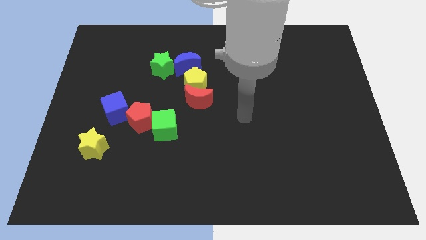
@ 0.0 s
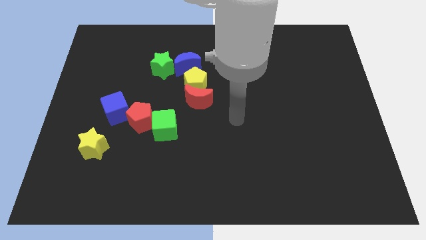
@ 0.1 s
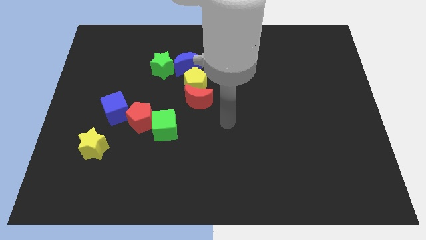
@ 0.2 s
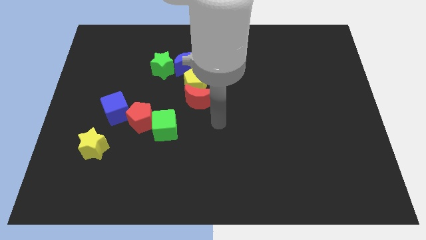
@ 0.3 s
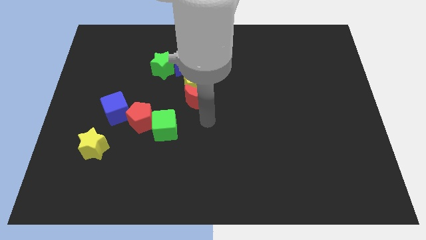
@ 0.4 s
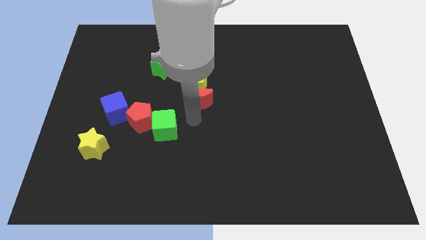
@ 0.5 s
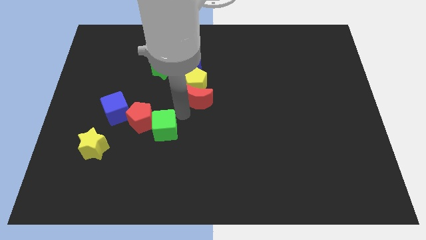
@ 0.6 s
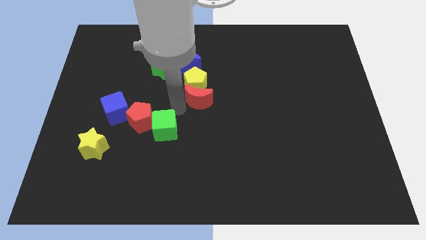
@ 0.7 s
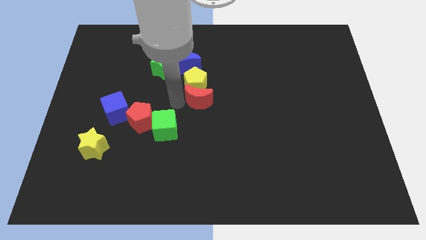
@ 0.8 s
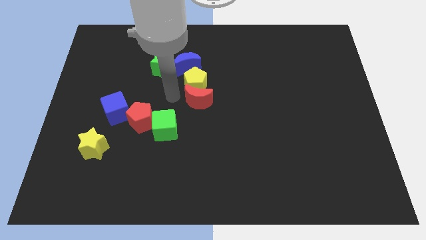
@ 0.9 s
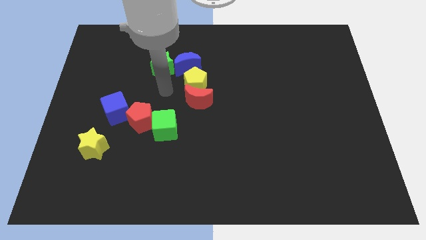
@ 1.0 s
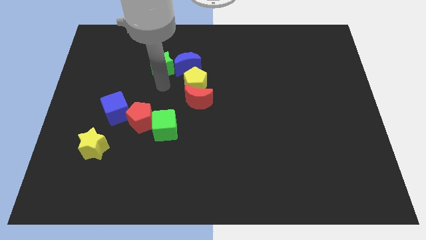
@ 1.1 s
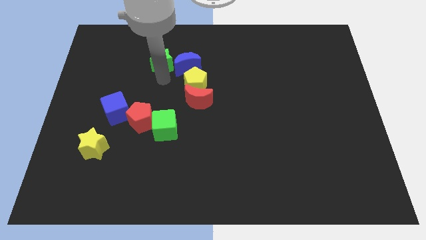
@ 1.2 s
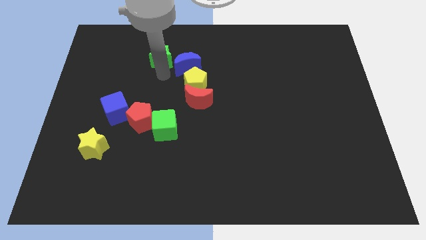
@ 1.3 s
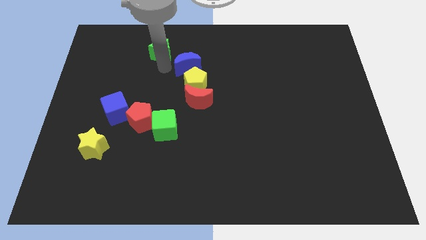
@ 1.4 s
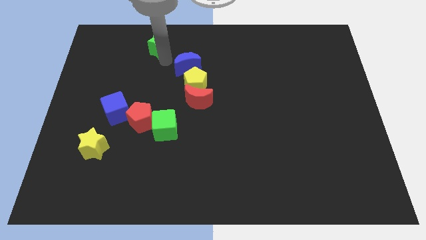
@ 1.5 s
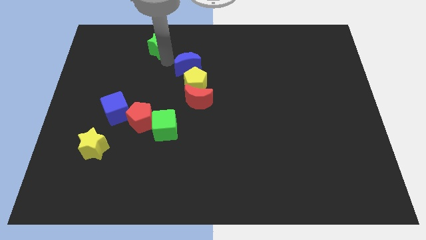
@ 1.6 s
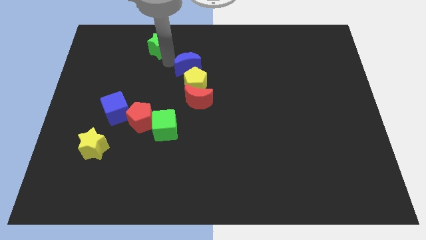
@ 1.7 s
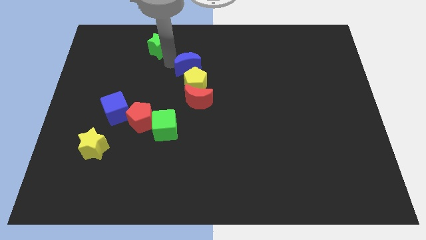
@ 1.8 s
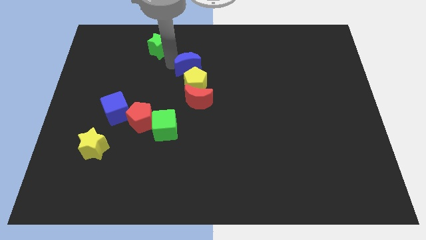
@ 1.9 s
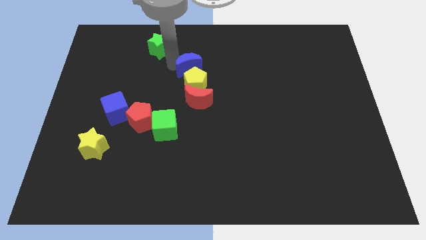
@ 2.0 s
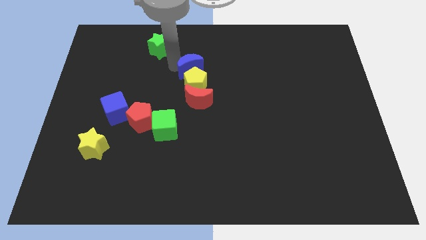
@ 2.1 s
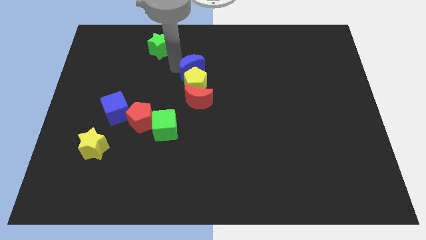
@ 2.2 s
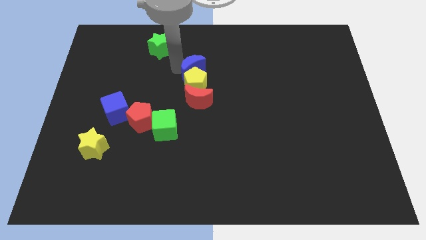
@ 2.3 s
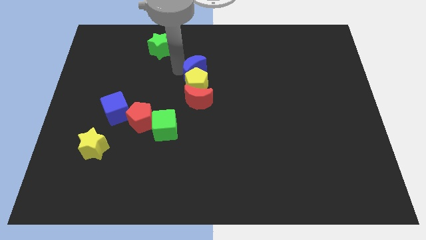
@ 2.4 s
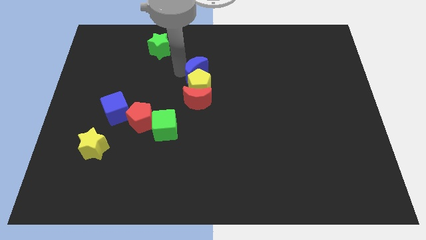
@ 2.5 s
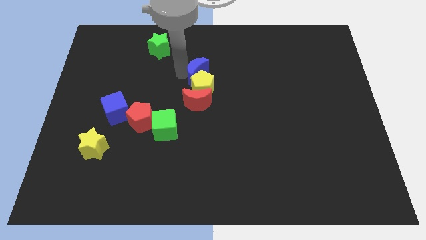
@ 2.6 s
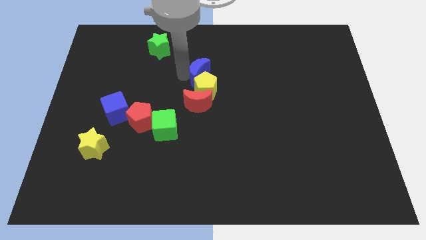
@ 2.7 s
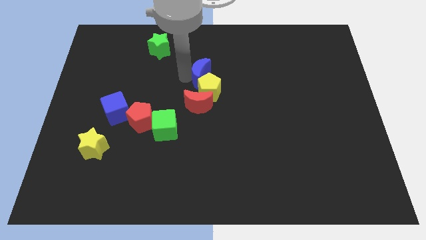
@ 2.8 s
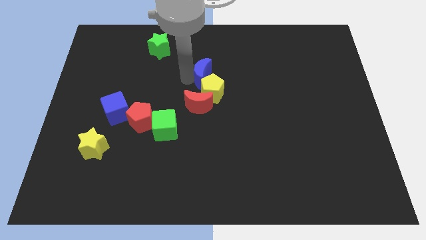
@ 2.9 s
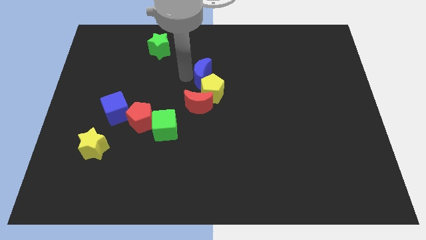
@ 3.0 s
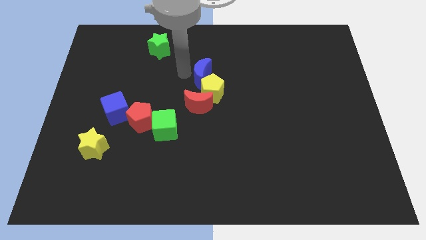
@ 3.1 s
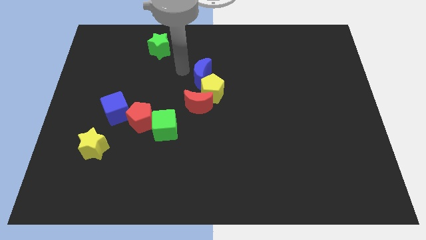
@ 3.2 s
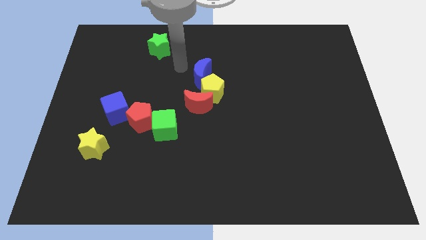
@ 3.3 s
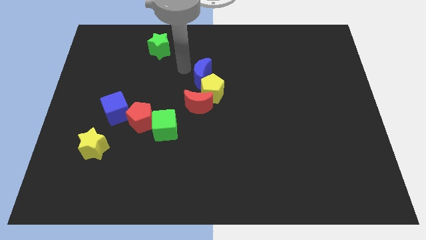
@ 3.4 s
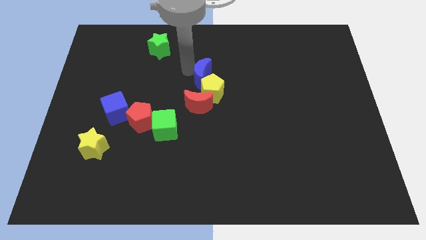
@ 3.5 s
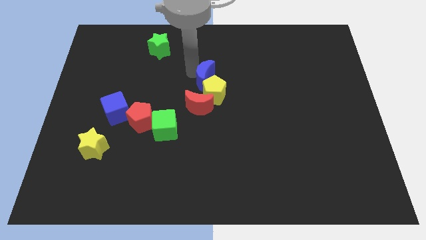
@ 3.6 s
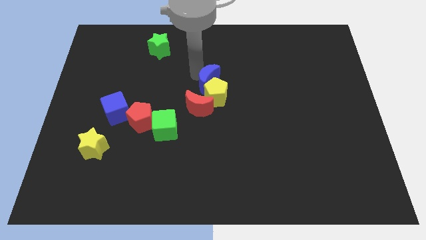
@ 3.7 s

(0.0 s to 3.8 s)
slide the blue moon a little diagonally down and to the right

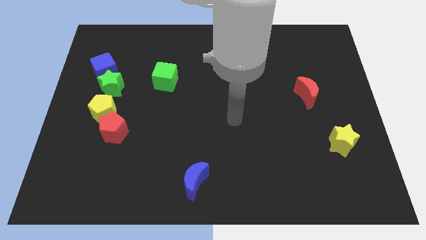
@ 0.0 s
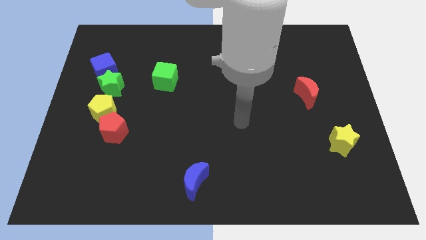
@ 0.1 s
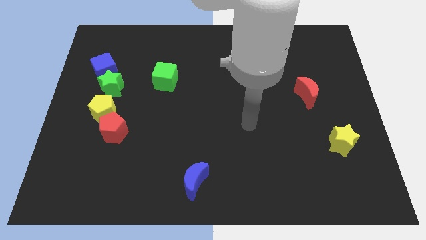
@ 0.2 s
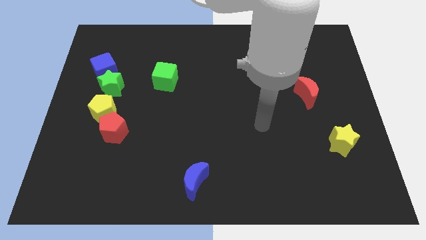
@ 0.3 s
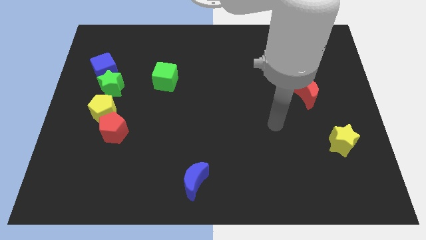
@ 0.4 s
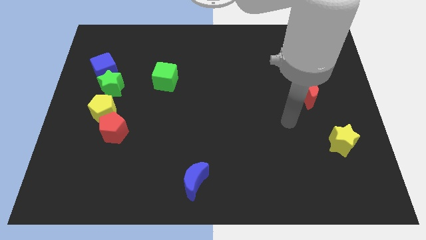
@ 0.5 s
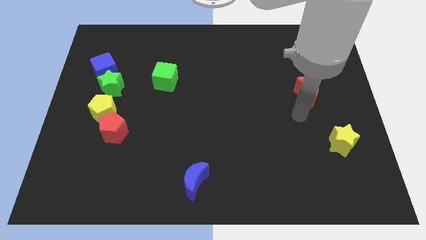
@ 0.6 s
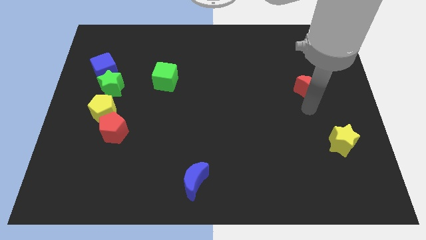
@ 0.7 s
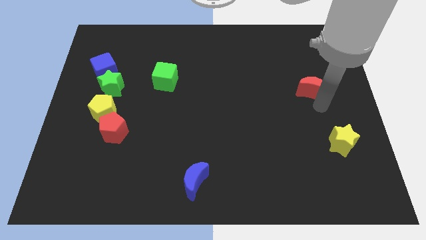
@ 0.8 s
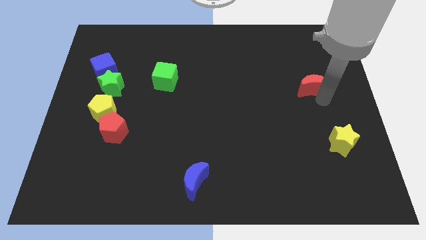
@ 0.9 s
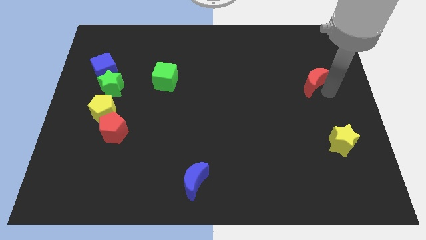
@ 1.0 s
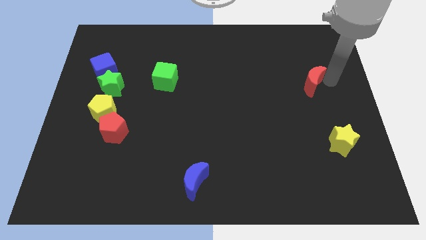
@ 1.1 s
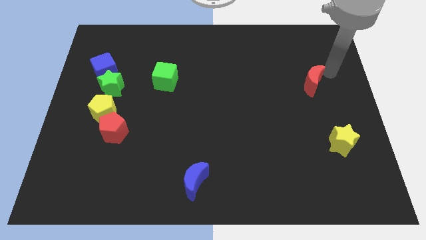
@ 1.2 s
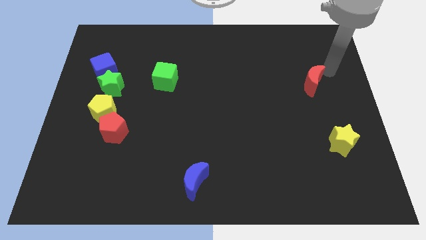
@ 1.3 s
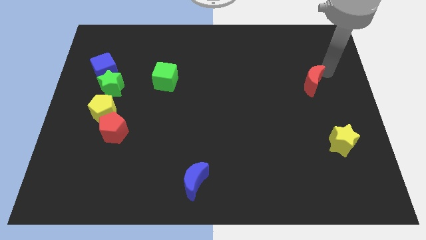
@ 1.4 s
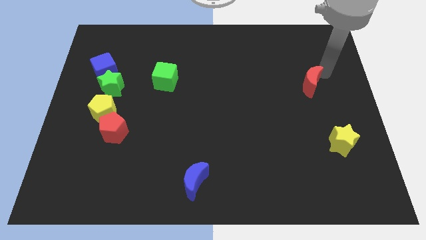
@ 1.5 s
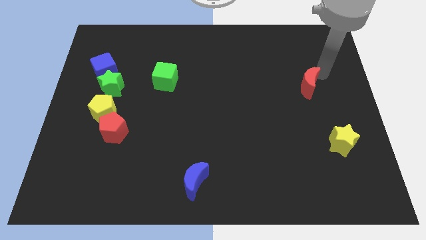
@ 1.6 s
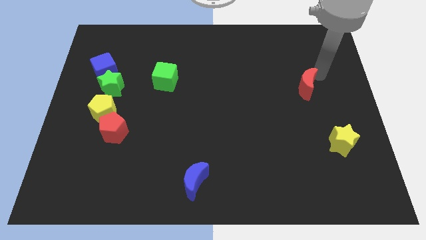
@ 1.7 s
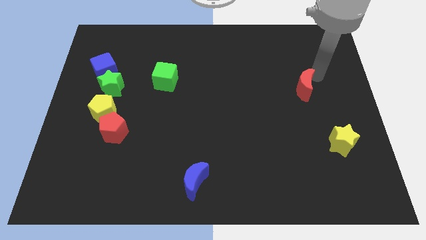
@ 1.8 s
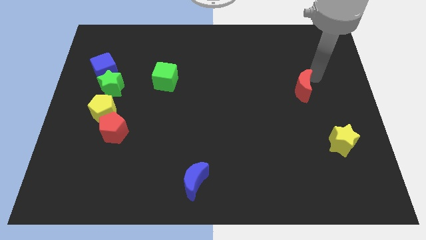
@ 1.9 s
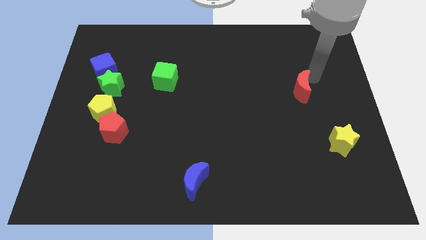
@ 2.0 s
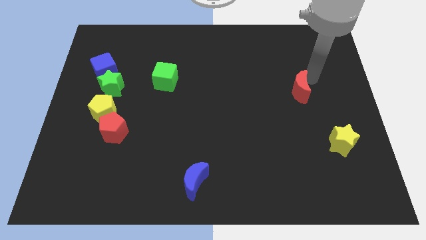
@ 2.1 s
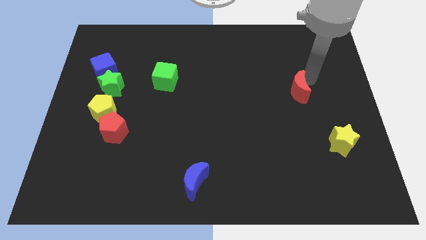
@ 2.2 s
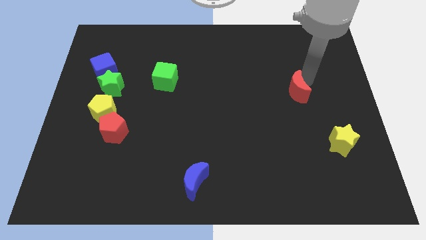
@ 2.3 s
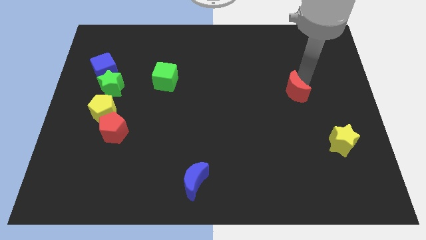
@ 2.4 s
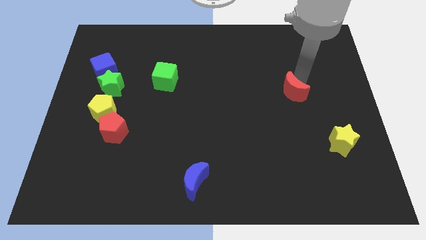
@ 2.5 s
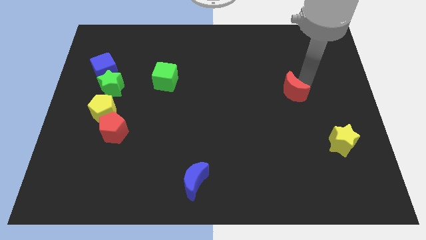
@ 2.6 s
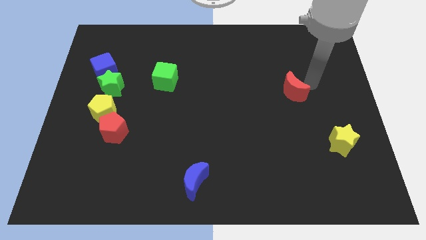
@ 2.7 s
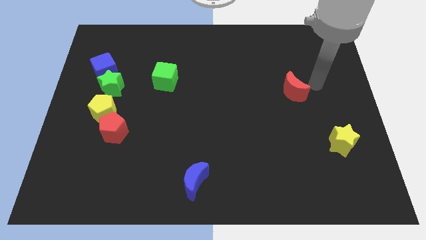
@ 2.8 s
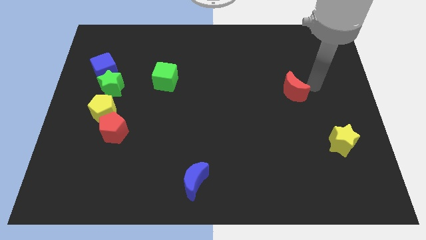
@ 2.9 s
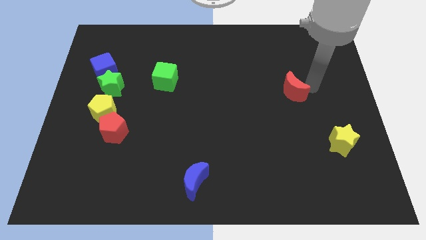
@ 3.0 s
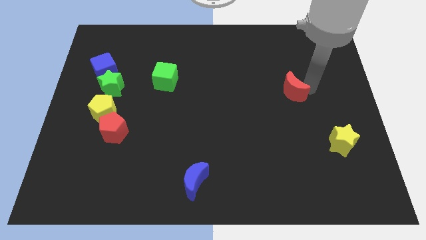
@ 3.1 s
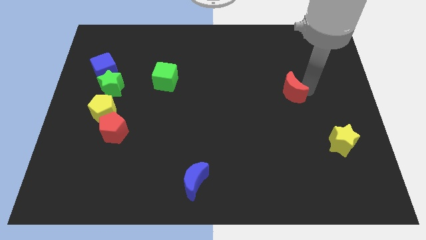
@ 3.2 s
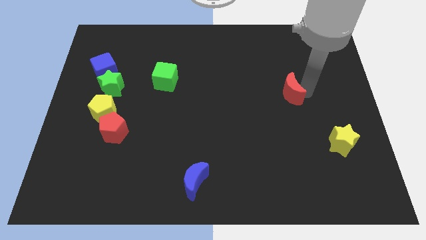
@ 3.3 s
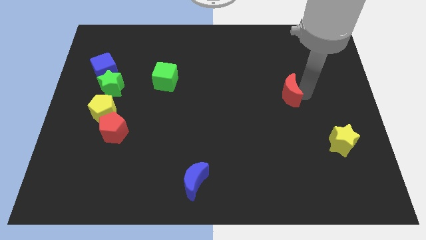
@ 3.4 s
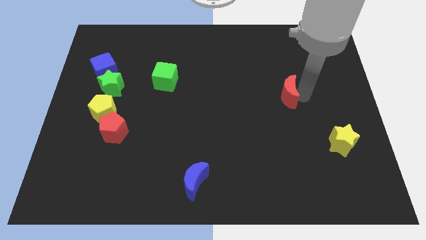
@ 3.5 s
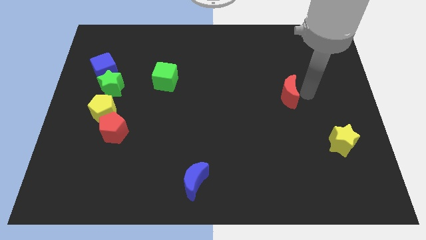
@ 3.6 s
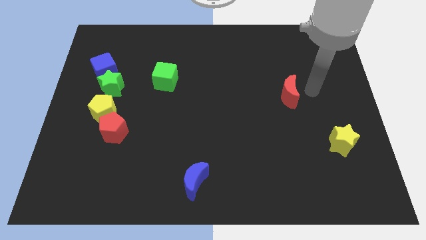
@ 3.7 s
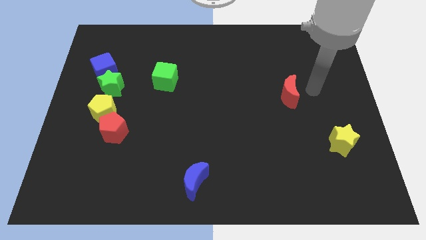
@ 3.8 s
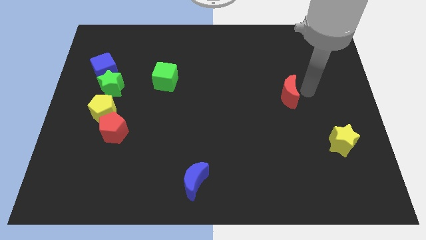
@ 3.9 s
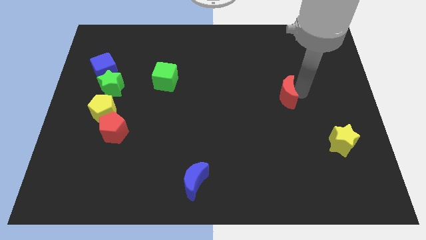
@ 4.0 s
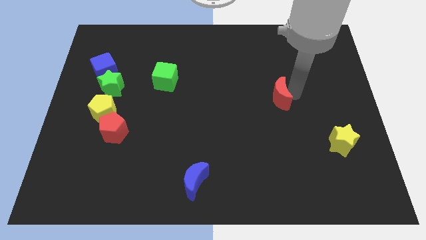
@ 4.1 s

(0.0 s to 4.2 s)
move the red moon a little bit to the left
